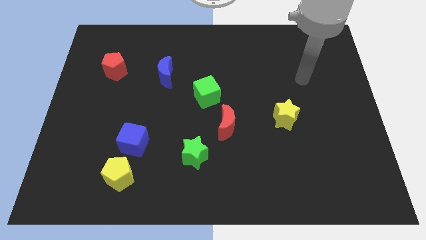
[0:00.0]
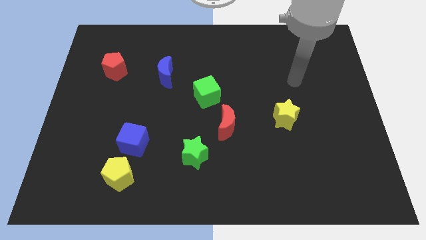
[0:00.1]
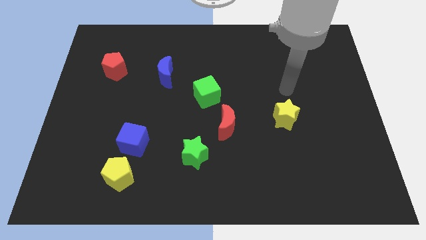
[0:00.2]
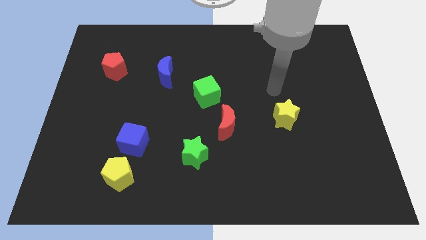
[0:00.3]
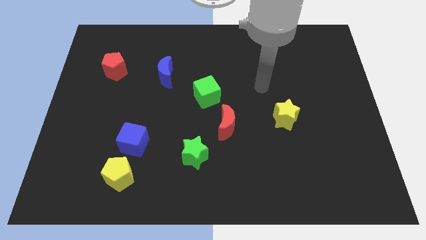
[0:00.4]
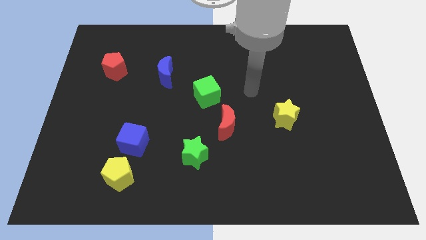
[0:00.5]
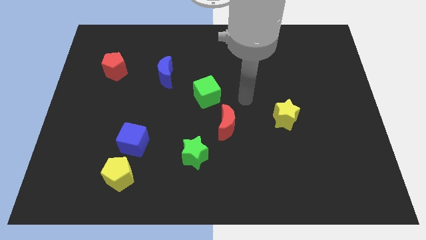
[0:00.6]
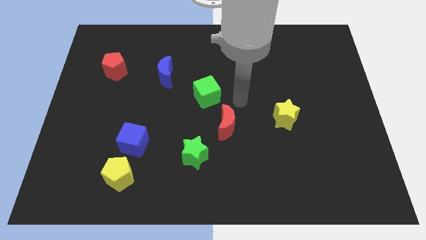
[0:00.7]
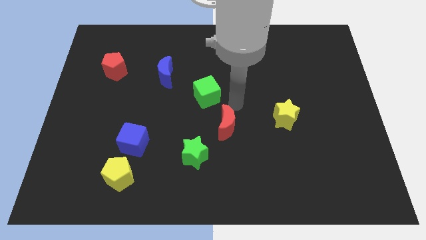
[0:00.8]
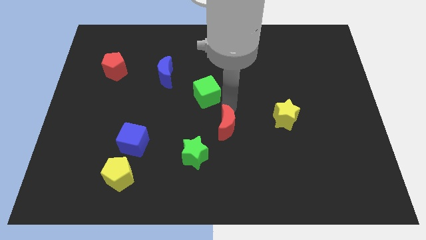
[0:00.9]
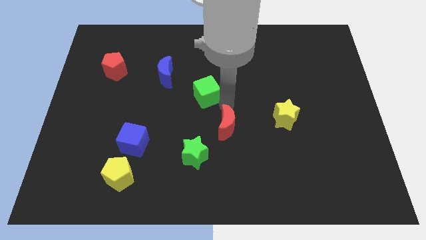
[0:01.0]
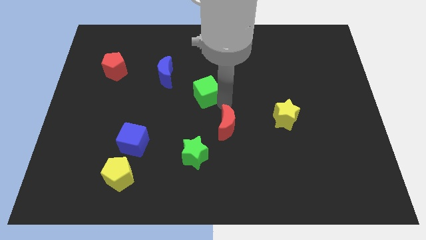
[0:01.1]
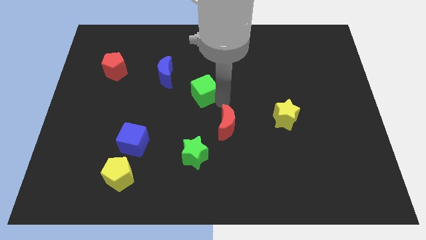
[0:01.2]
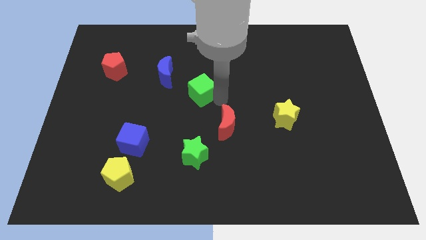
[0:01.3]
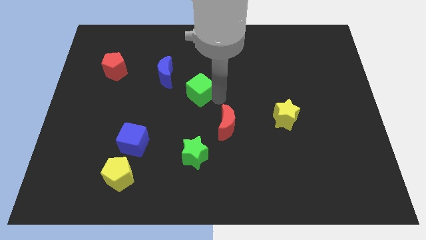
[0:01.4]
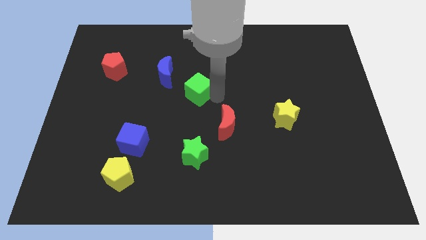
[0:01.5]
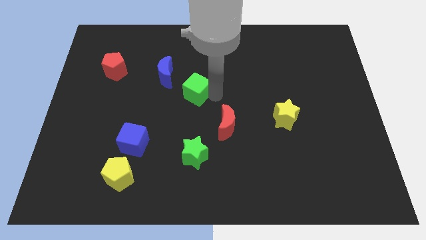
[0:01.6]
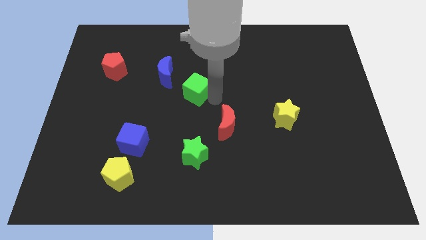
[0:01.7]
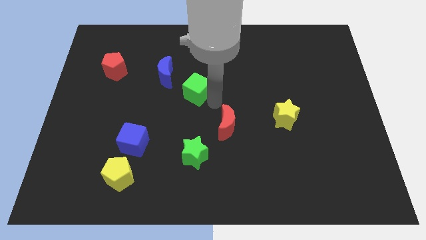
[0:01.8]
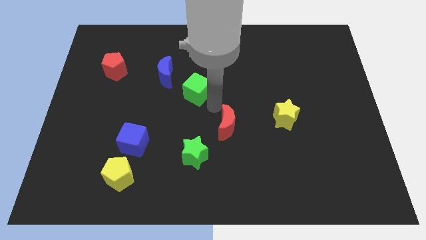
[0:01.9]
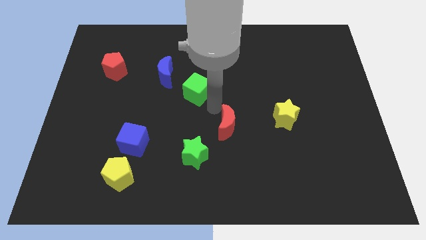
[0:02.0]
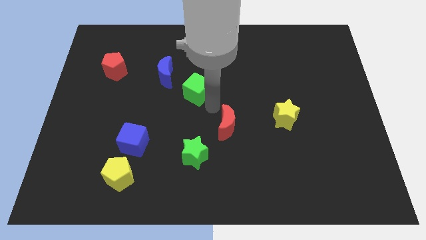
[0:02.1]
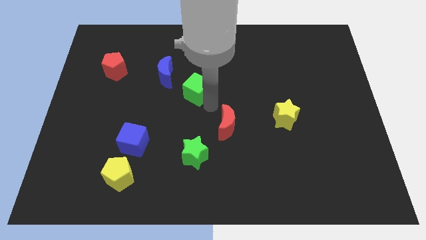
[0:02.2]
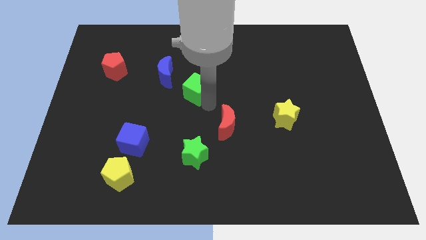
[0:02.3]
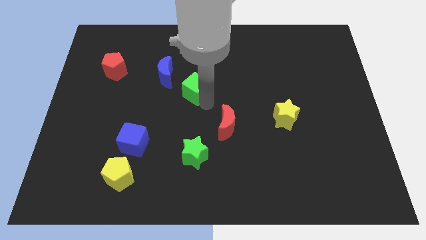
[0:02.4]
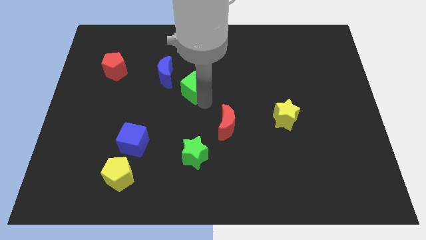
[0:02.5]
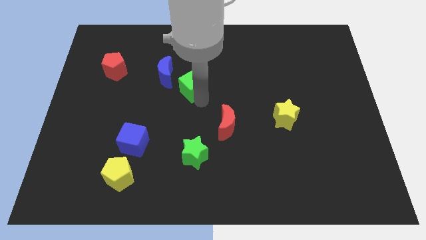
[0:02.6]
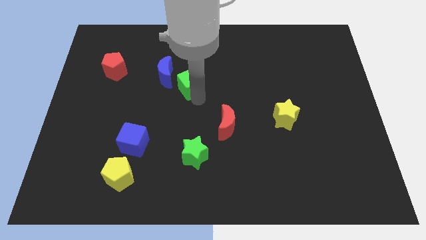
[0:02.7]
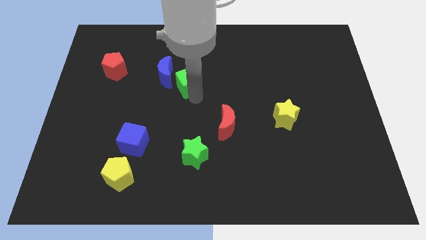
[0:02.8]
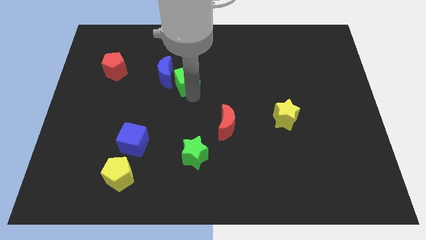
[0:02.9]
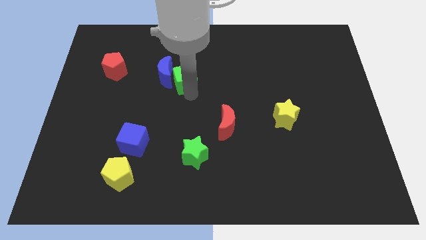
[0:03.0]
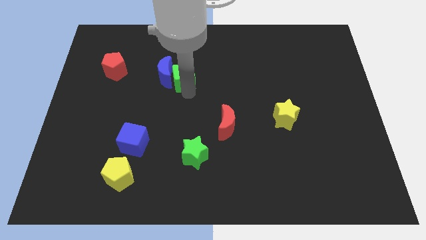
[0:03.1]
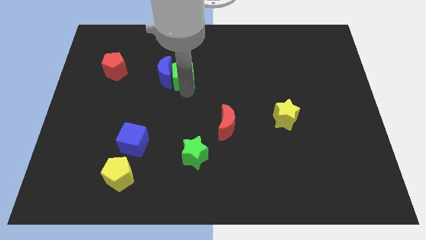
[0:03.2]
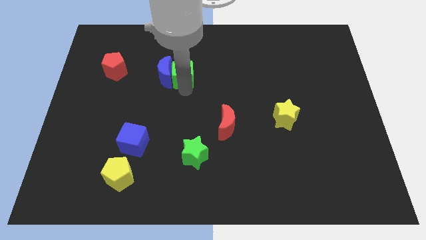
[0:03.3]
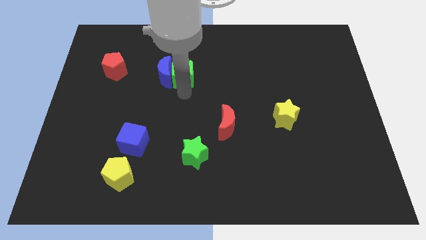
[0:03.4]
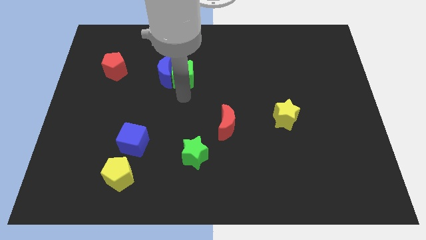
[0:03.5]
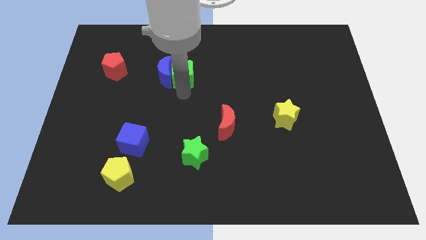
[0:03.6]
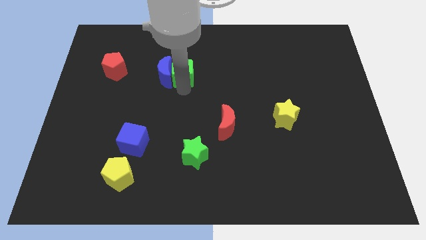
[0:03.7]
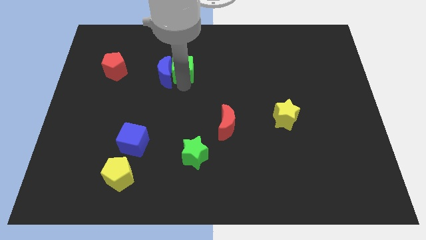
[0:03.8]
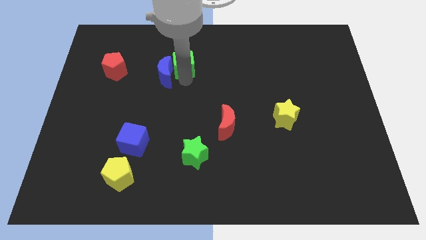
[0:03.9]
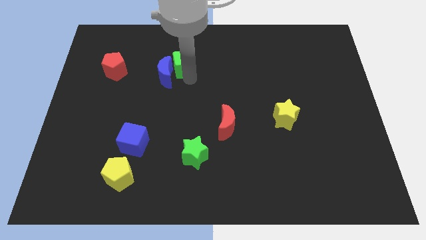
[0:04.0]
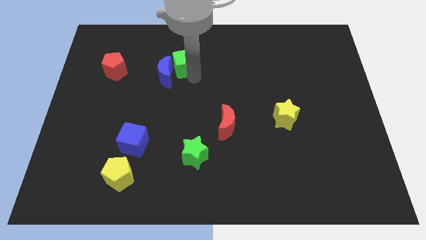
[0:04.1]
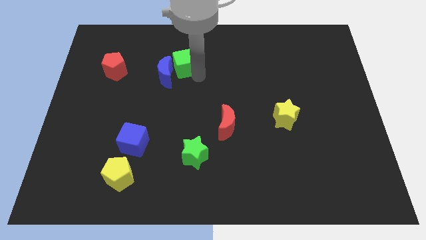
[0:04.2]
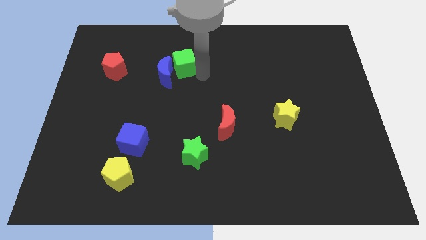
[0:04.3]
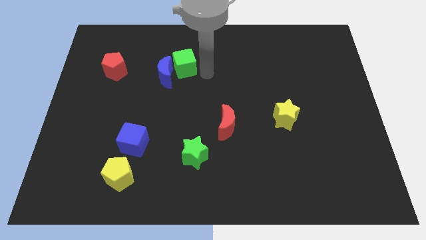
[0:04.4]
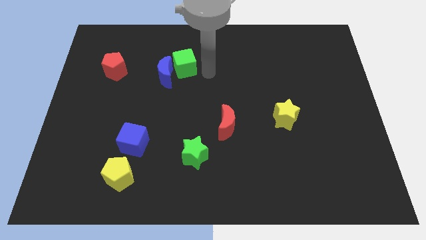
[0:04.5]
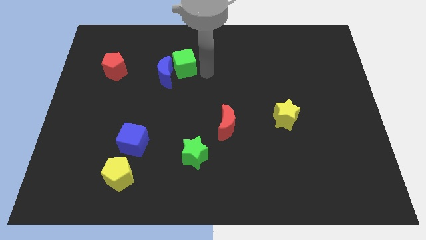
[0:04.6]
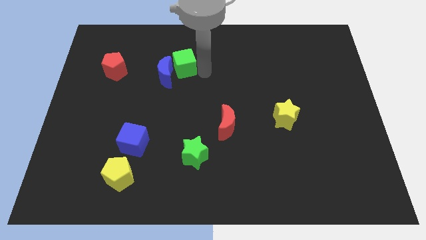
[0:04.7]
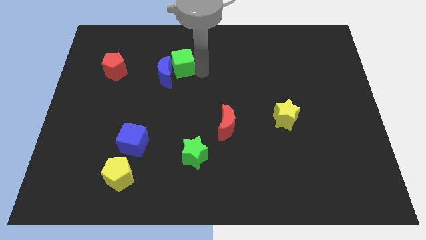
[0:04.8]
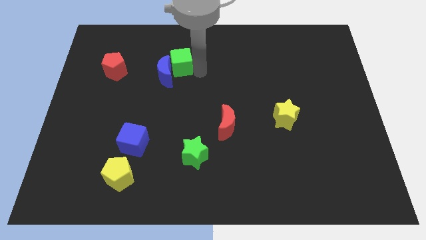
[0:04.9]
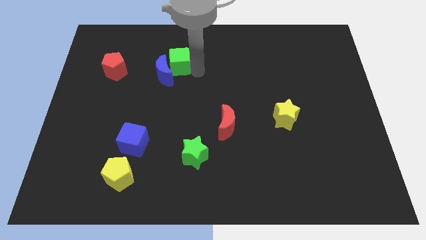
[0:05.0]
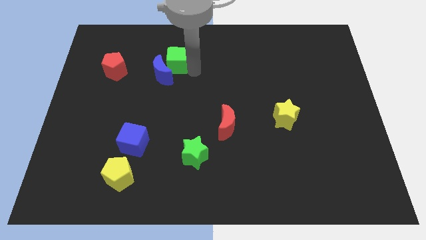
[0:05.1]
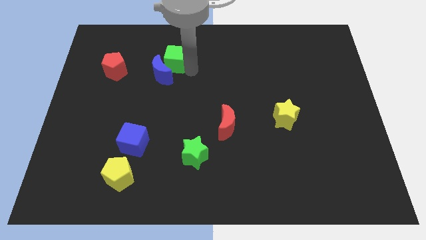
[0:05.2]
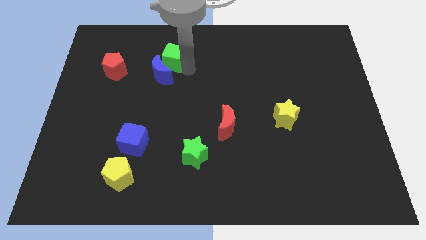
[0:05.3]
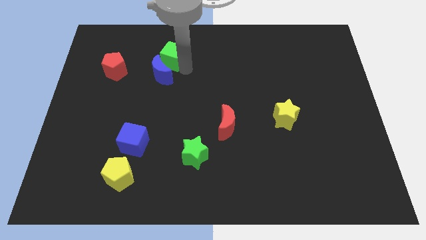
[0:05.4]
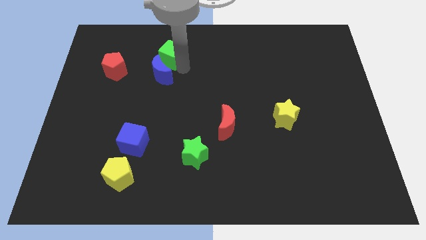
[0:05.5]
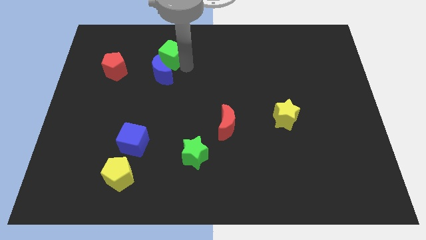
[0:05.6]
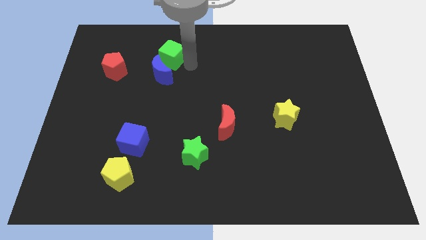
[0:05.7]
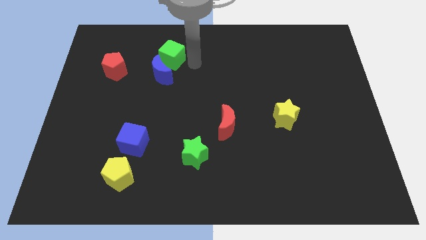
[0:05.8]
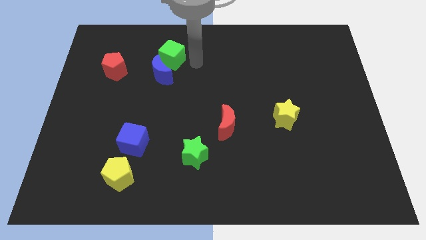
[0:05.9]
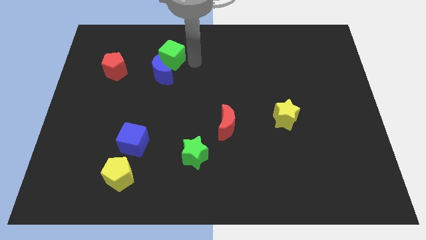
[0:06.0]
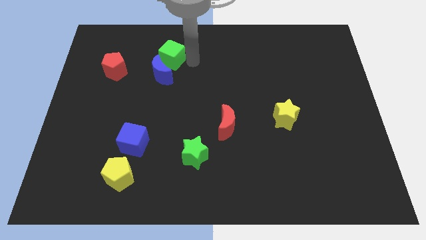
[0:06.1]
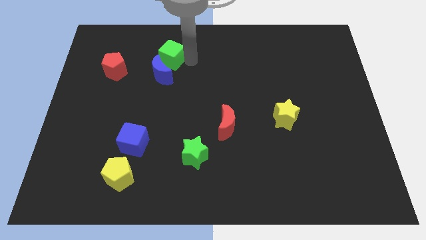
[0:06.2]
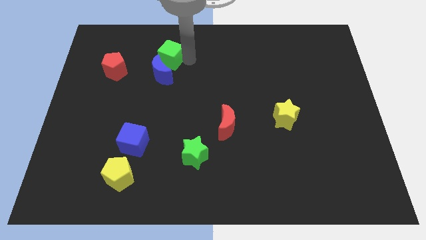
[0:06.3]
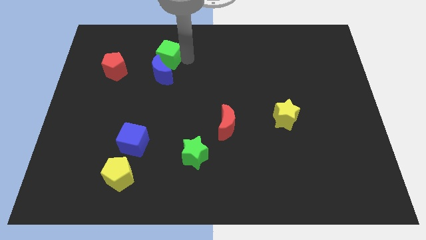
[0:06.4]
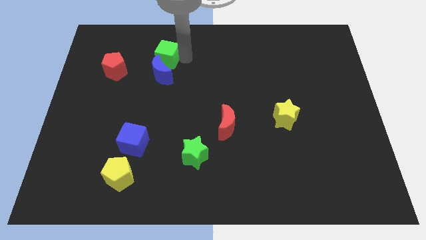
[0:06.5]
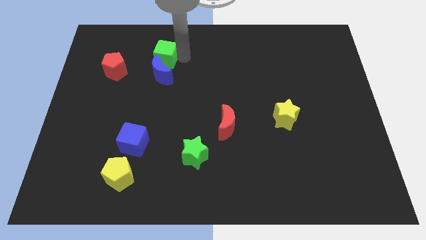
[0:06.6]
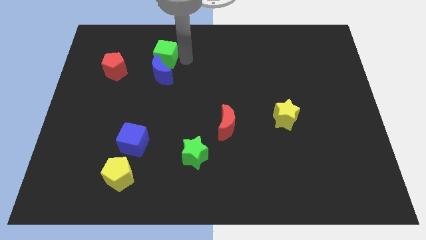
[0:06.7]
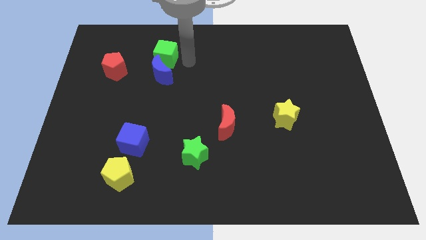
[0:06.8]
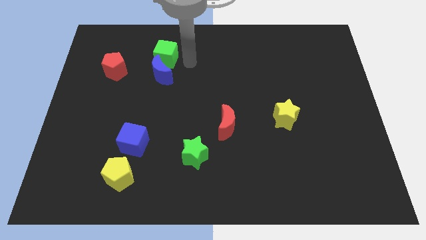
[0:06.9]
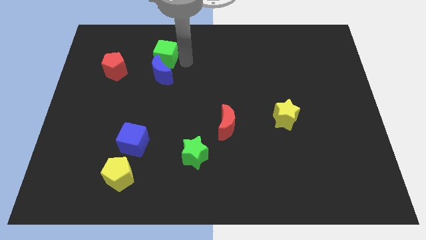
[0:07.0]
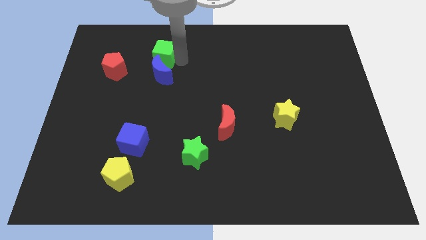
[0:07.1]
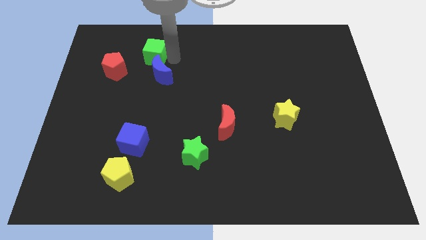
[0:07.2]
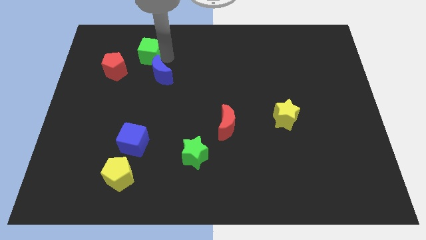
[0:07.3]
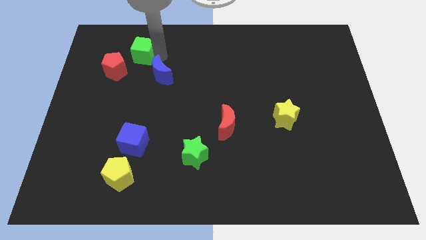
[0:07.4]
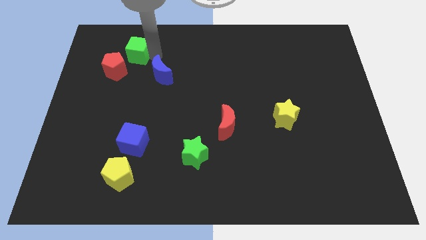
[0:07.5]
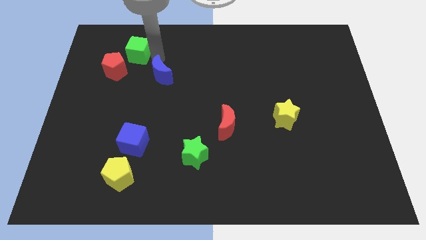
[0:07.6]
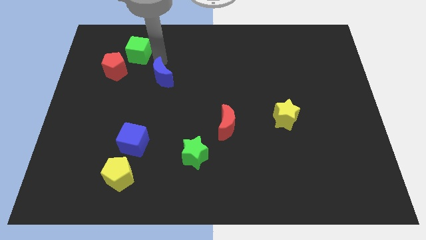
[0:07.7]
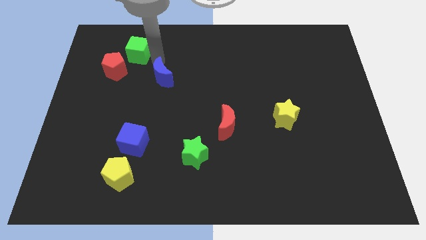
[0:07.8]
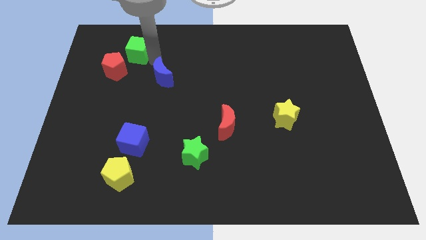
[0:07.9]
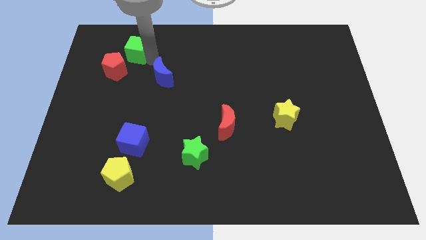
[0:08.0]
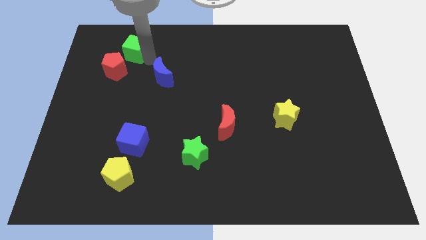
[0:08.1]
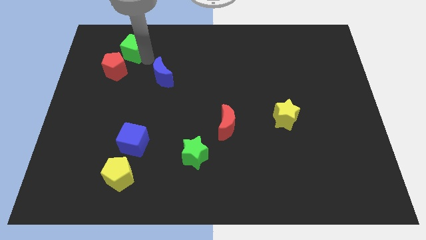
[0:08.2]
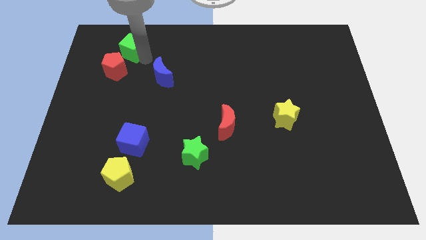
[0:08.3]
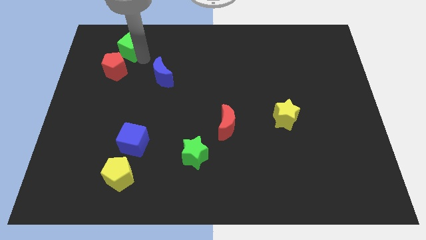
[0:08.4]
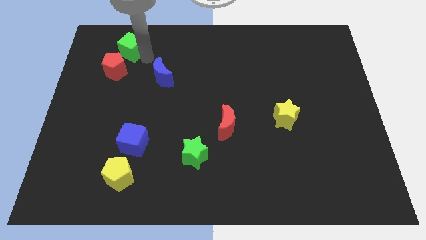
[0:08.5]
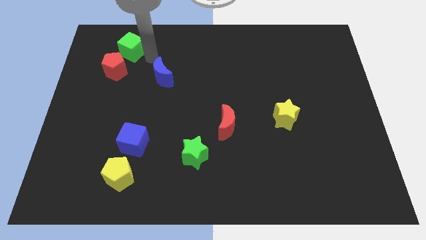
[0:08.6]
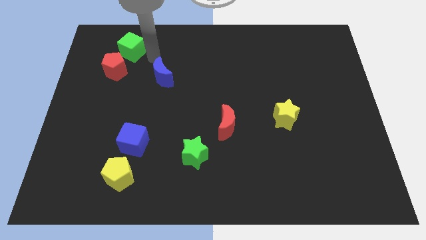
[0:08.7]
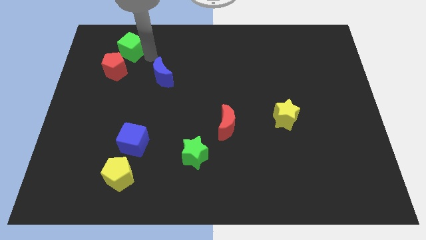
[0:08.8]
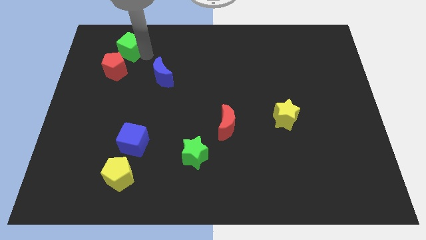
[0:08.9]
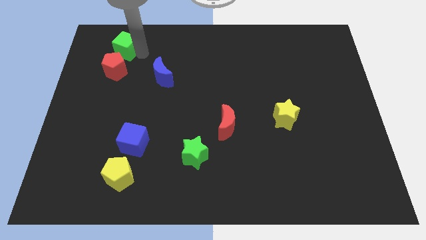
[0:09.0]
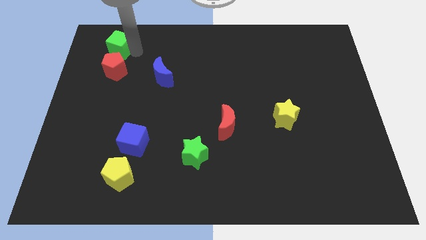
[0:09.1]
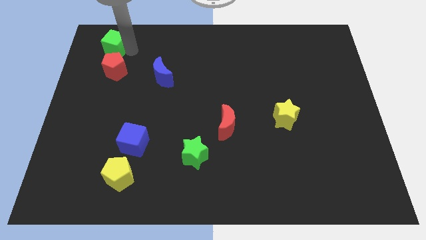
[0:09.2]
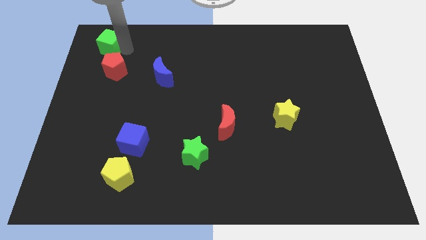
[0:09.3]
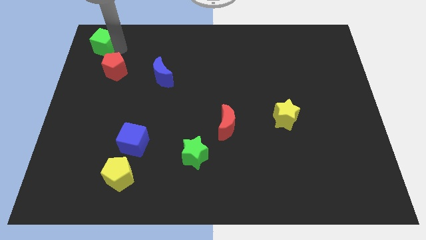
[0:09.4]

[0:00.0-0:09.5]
push the green cube to the top left corner
